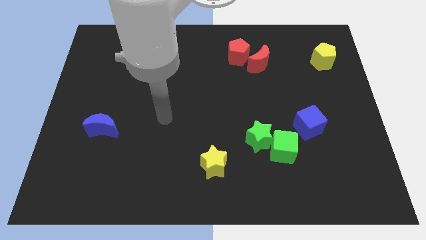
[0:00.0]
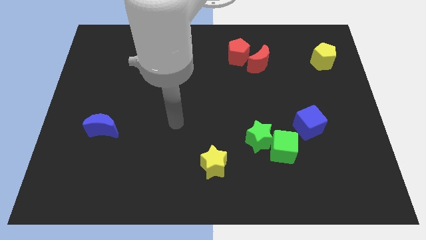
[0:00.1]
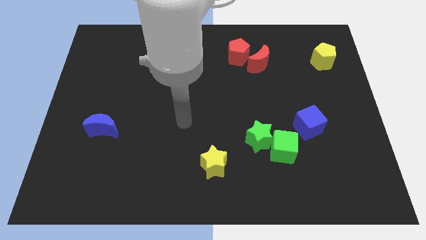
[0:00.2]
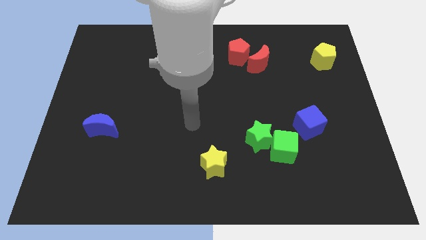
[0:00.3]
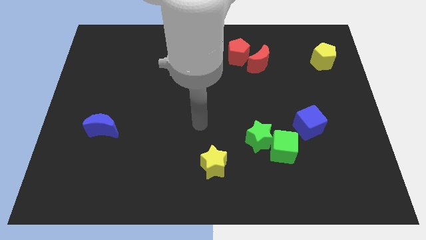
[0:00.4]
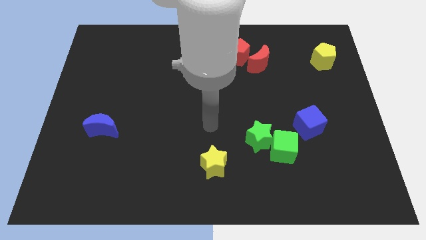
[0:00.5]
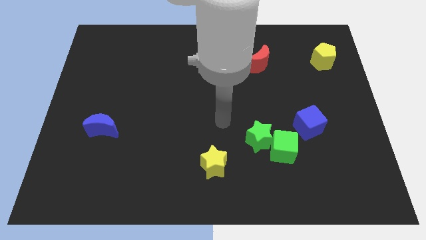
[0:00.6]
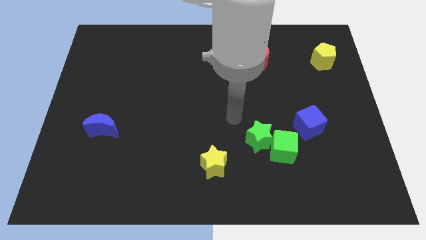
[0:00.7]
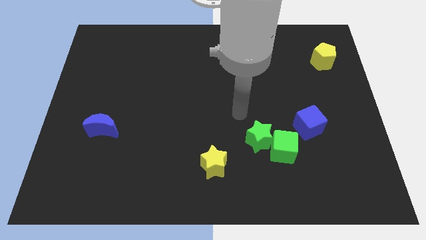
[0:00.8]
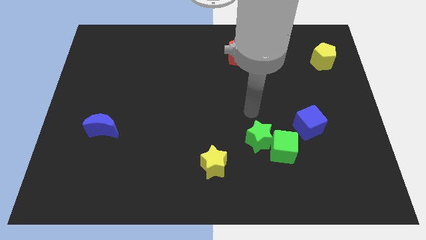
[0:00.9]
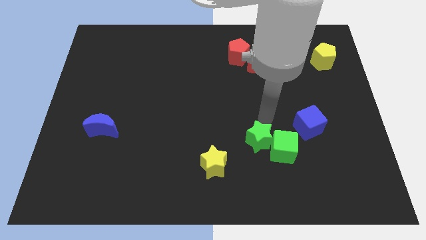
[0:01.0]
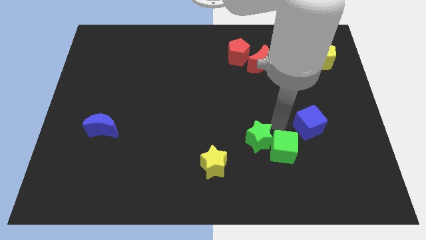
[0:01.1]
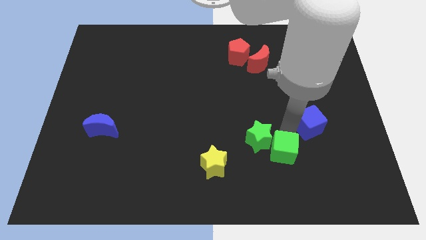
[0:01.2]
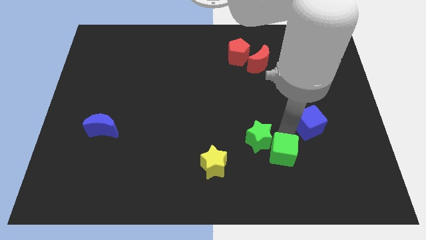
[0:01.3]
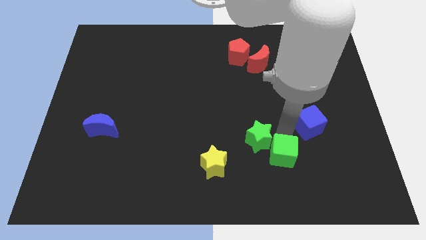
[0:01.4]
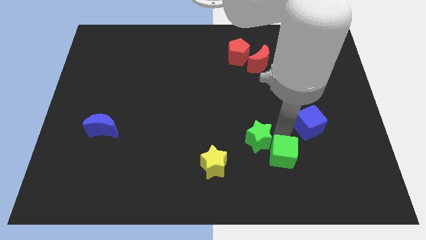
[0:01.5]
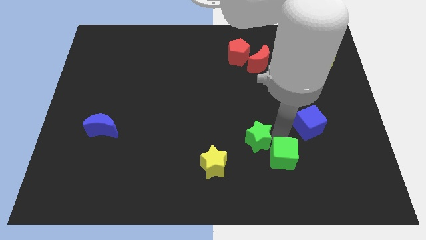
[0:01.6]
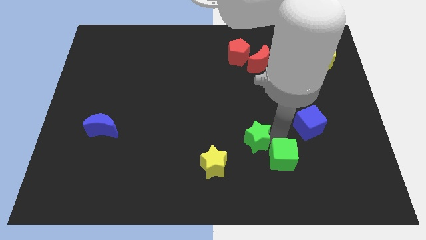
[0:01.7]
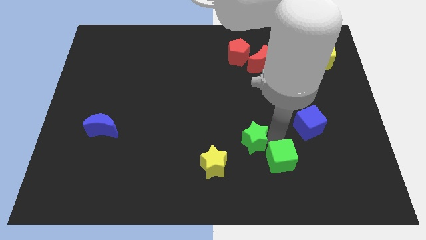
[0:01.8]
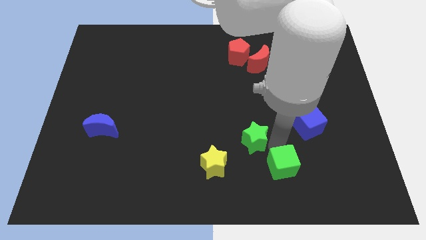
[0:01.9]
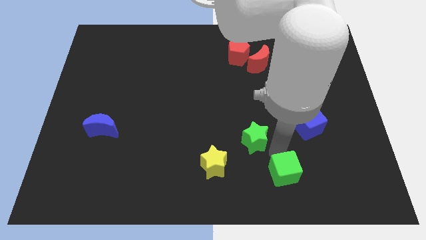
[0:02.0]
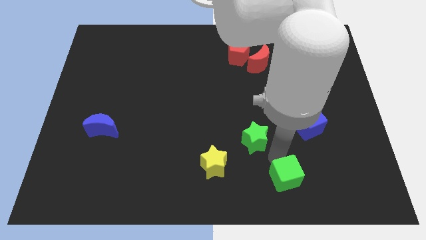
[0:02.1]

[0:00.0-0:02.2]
separate the green star from the green cube

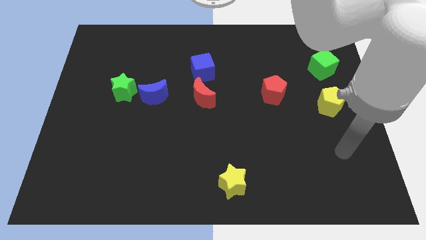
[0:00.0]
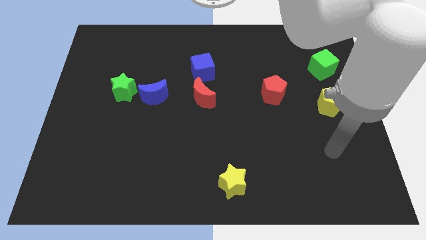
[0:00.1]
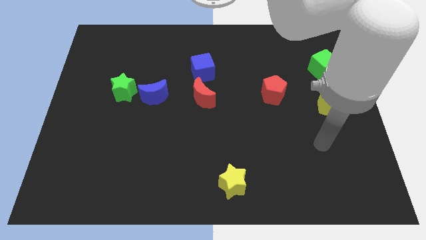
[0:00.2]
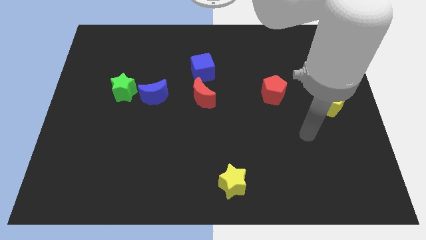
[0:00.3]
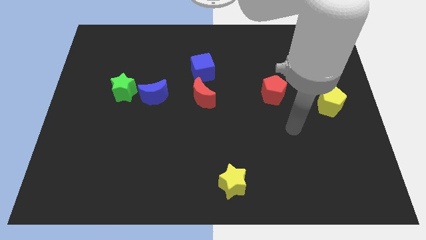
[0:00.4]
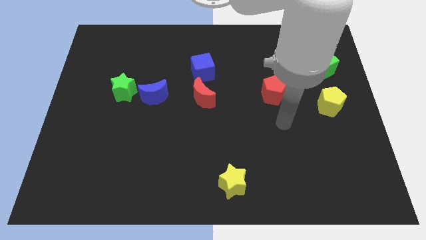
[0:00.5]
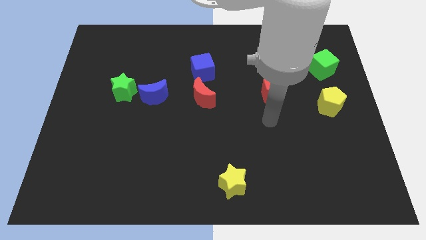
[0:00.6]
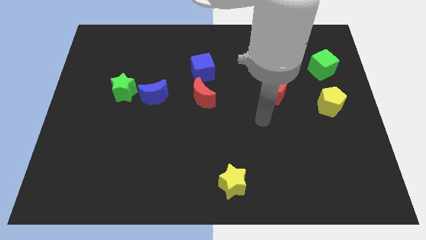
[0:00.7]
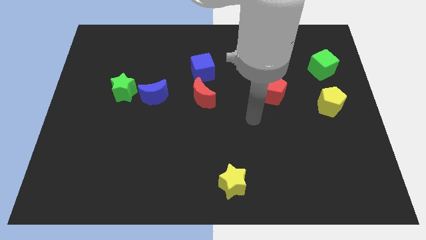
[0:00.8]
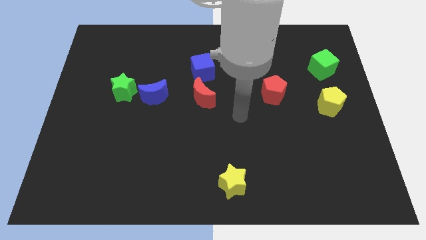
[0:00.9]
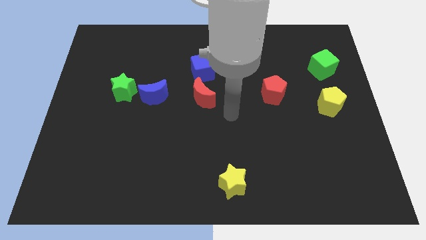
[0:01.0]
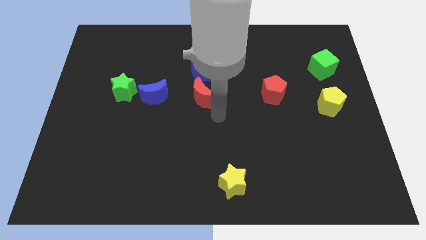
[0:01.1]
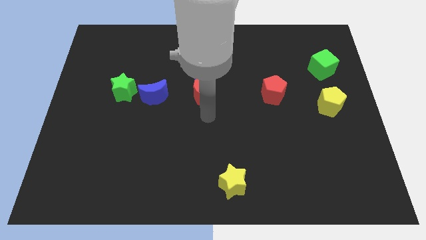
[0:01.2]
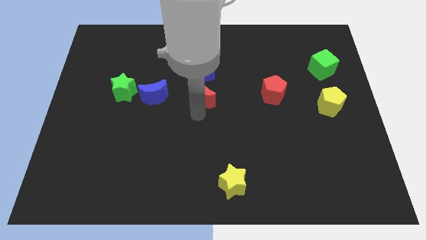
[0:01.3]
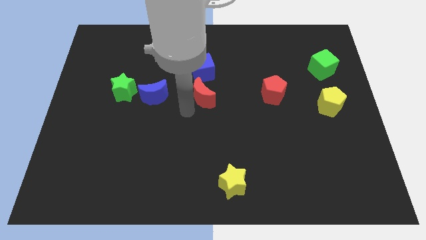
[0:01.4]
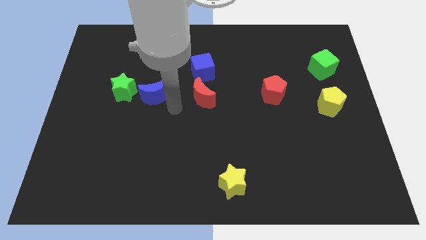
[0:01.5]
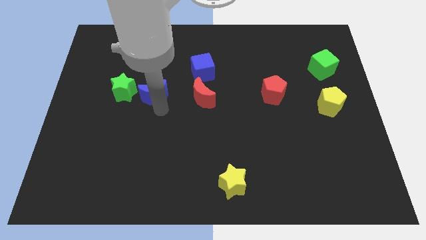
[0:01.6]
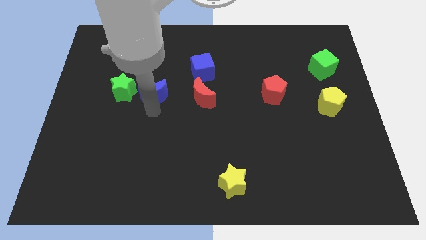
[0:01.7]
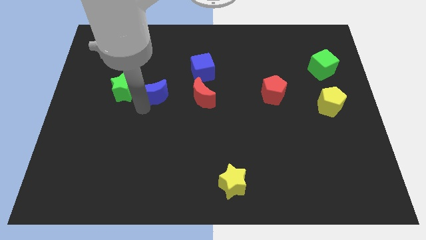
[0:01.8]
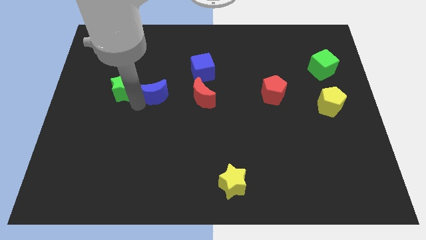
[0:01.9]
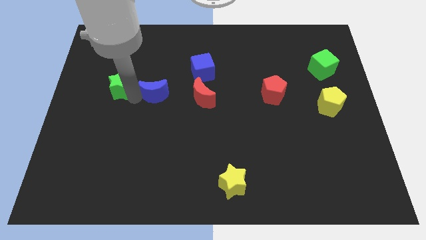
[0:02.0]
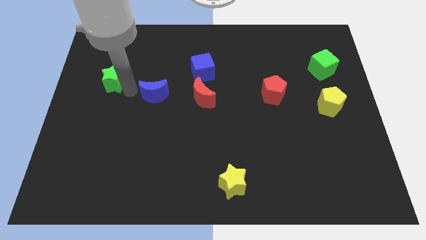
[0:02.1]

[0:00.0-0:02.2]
pull the blue moon apart from the green star

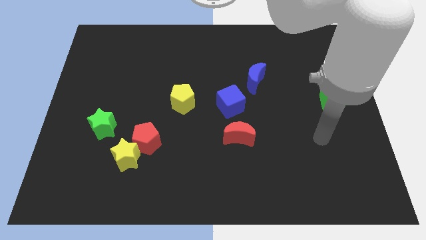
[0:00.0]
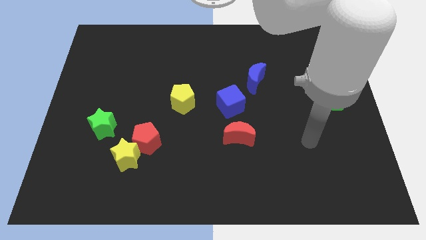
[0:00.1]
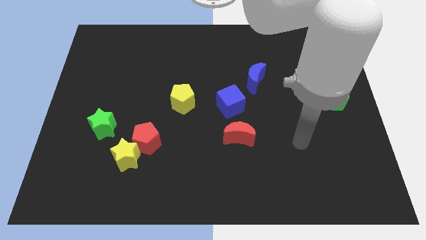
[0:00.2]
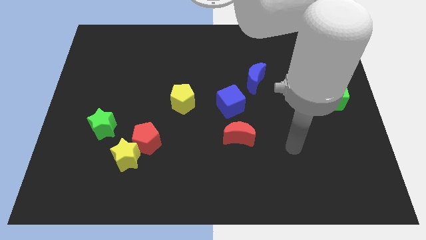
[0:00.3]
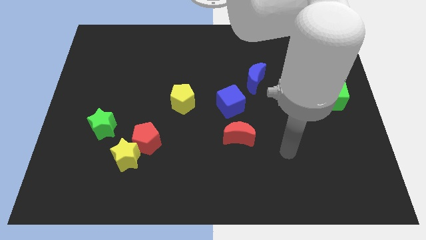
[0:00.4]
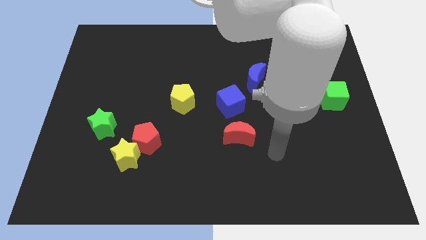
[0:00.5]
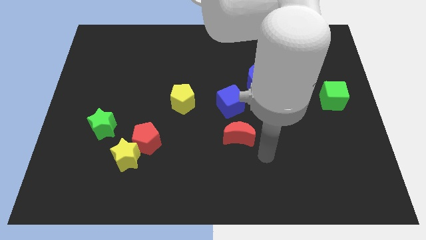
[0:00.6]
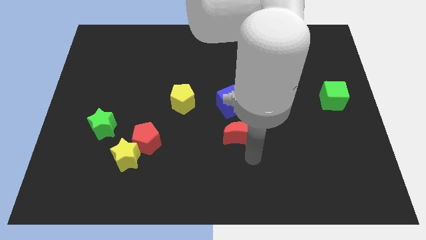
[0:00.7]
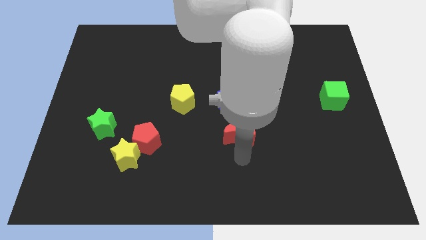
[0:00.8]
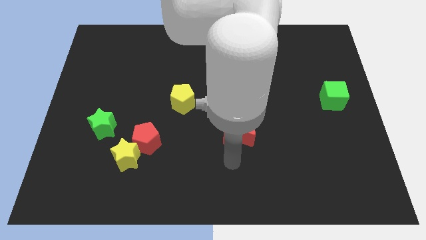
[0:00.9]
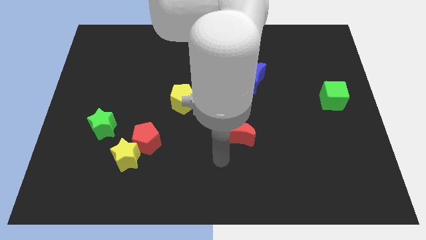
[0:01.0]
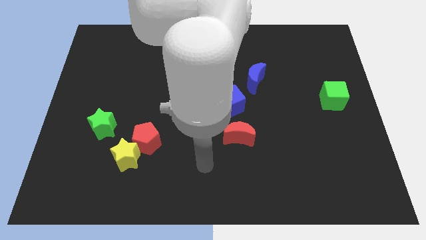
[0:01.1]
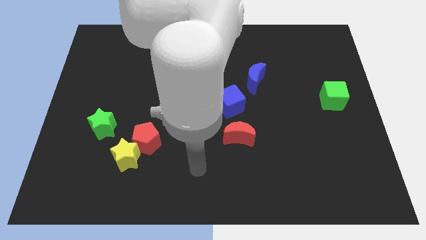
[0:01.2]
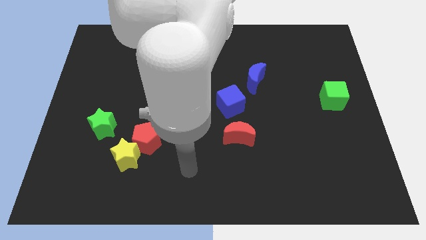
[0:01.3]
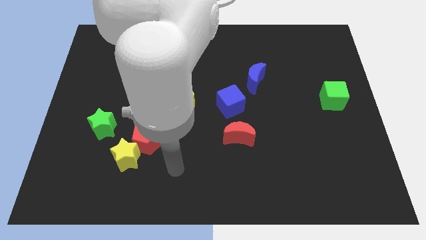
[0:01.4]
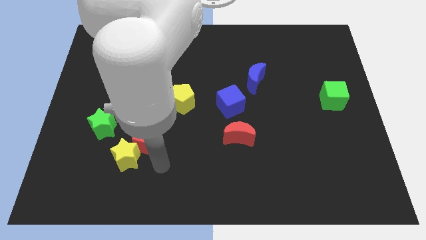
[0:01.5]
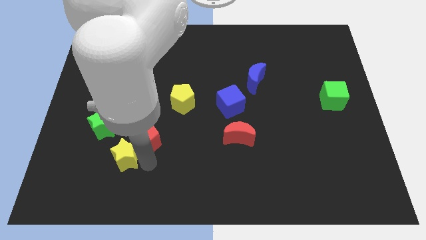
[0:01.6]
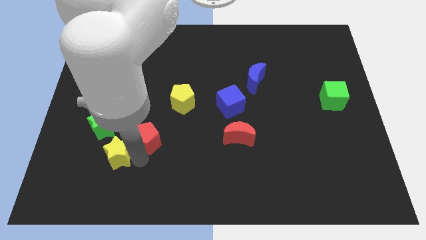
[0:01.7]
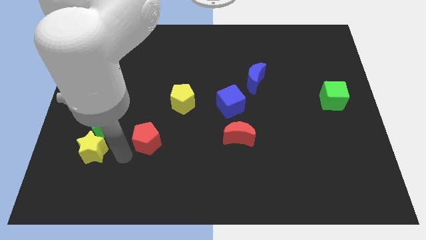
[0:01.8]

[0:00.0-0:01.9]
move the red pentagon away from the yellow star

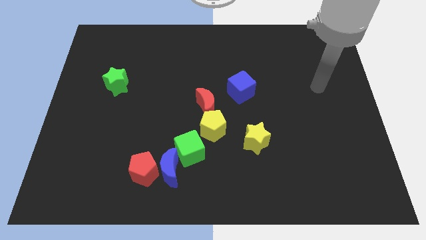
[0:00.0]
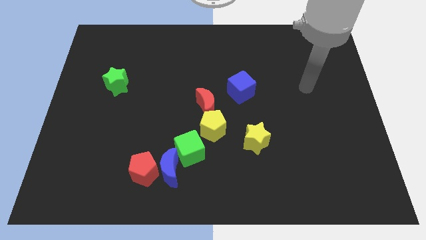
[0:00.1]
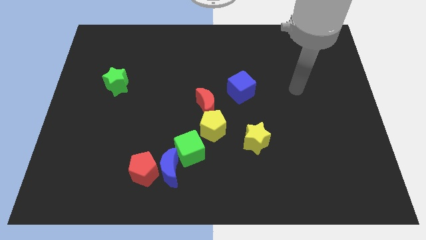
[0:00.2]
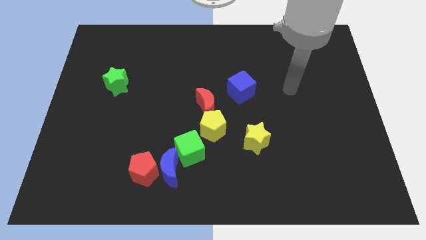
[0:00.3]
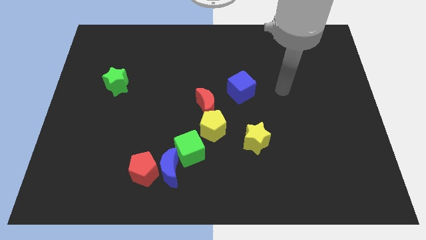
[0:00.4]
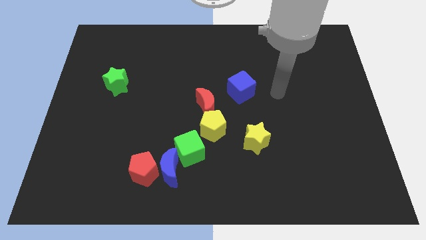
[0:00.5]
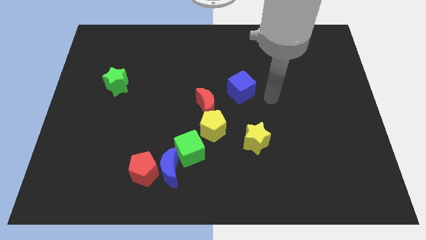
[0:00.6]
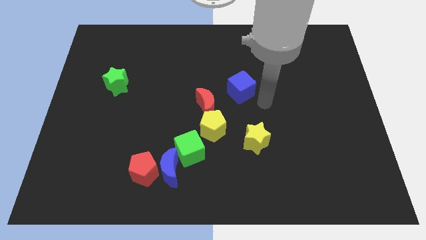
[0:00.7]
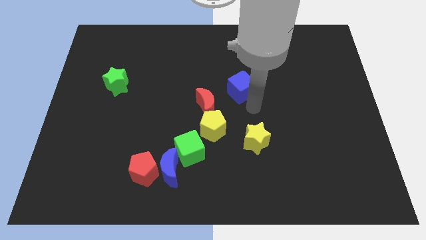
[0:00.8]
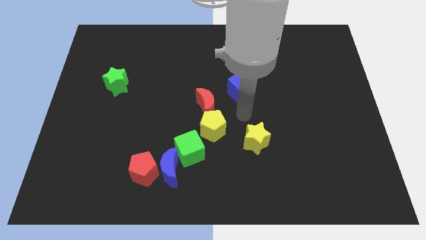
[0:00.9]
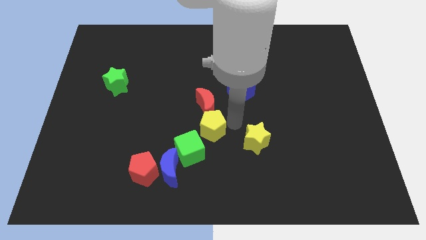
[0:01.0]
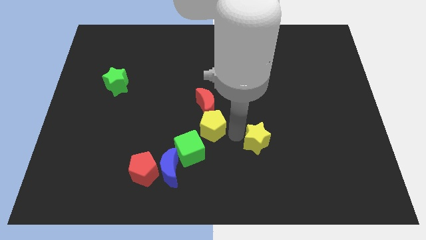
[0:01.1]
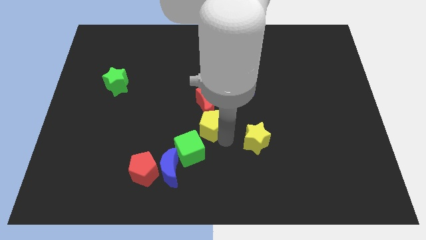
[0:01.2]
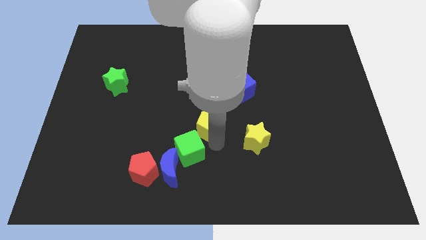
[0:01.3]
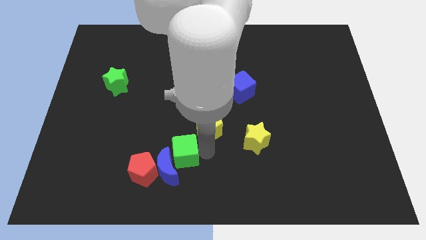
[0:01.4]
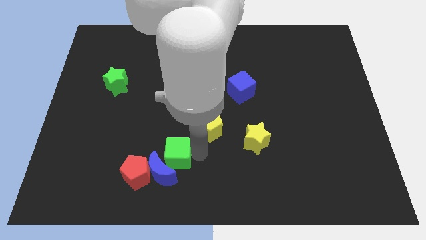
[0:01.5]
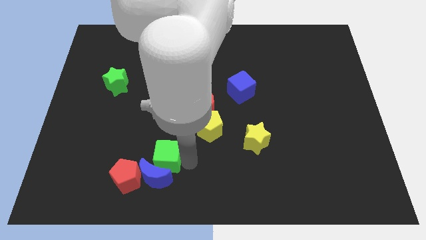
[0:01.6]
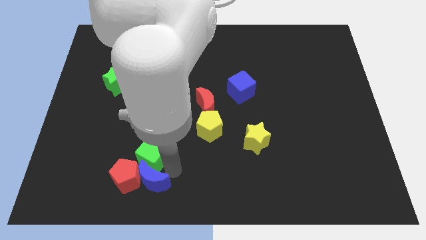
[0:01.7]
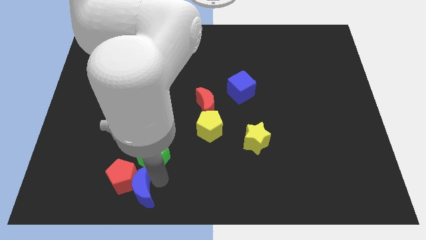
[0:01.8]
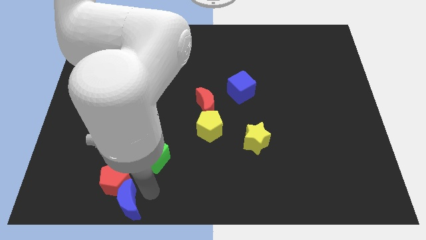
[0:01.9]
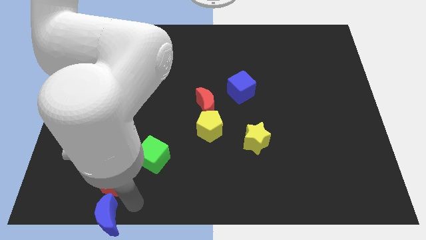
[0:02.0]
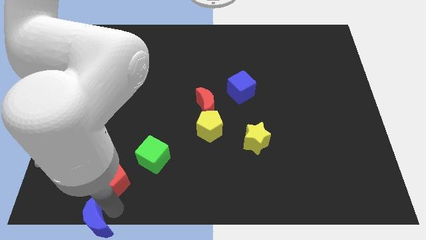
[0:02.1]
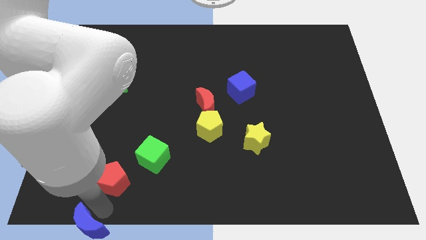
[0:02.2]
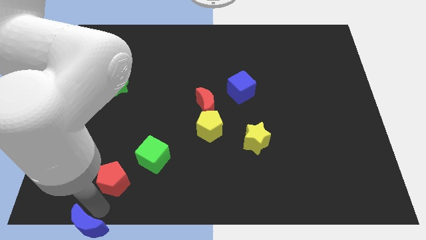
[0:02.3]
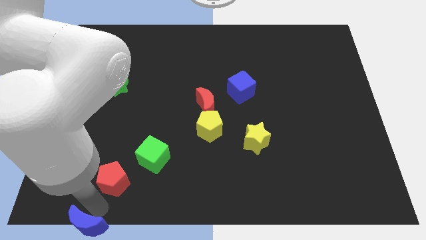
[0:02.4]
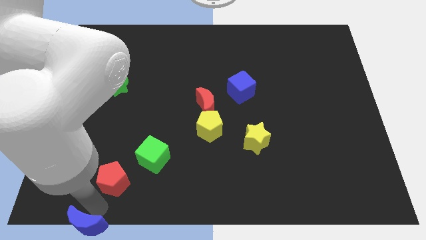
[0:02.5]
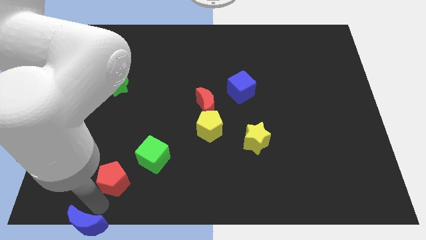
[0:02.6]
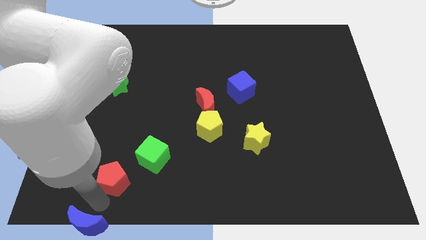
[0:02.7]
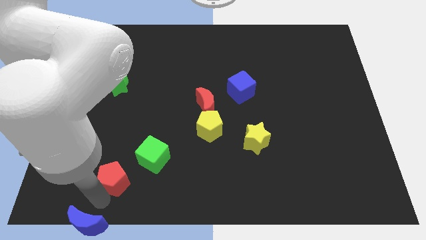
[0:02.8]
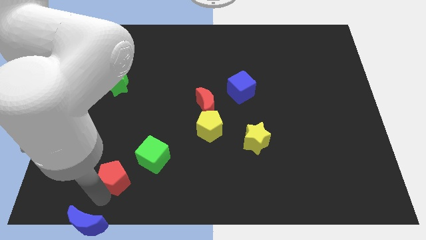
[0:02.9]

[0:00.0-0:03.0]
separate the red pentagon from the blue moon
